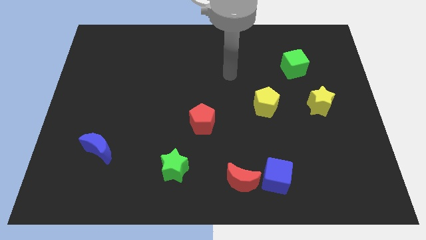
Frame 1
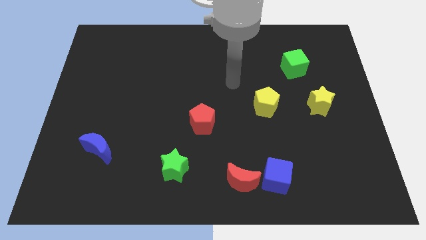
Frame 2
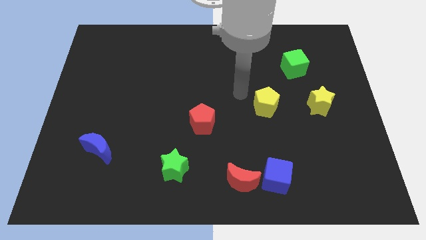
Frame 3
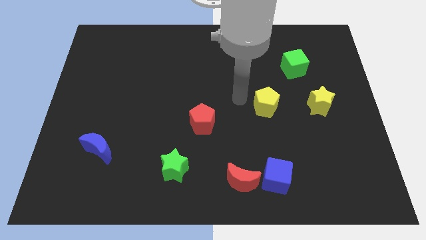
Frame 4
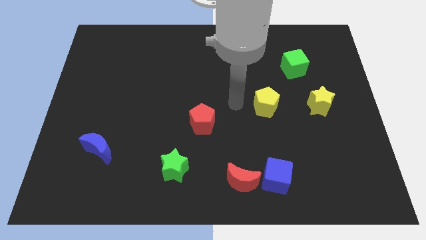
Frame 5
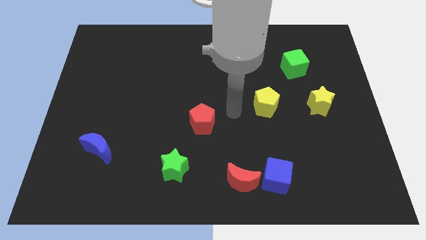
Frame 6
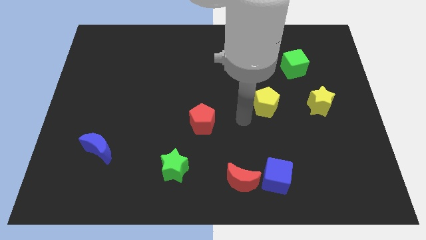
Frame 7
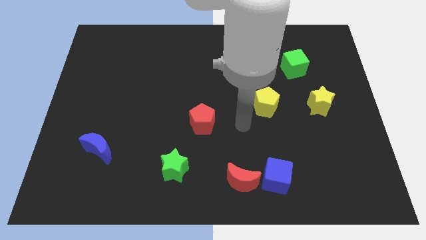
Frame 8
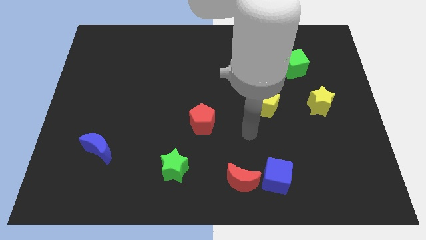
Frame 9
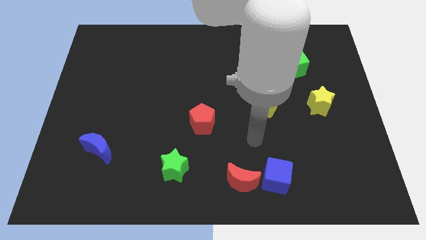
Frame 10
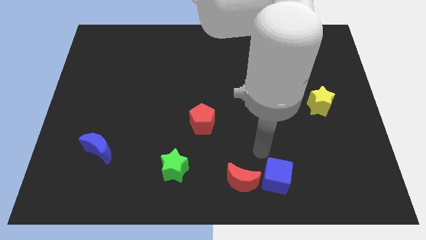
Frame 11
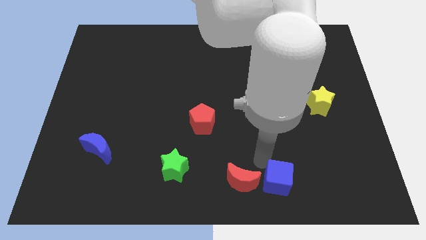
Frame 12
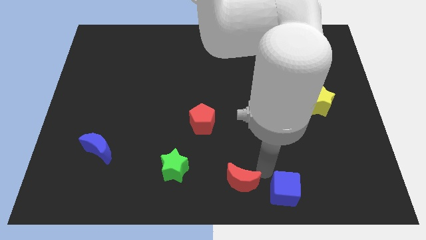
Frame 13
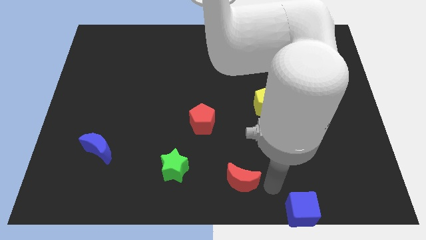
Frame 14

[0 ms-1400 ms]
move the red moon away from the blue cube

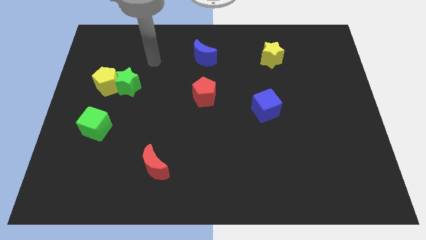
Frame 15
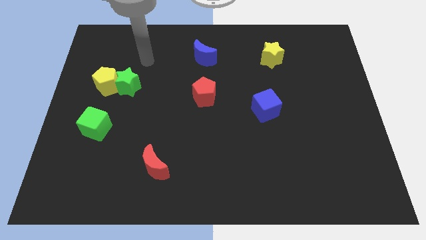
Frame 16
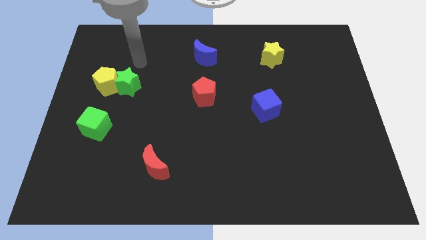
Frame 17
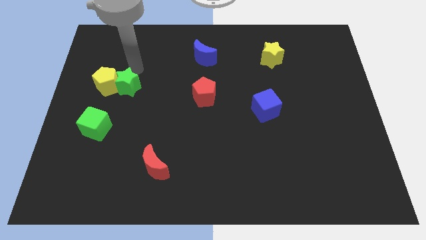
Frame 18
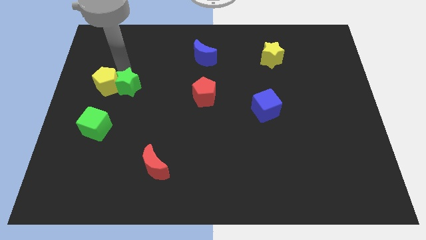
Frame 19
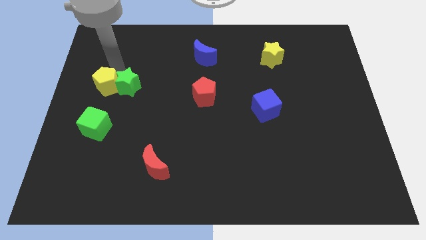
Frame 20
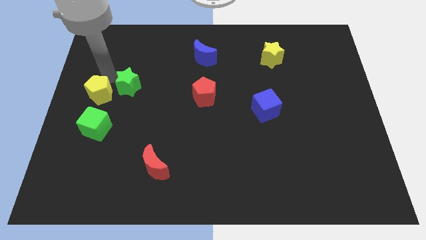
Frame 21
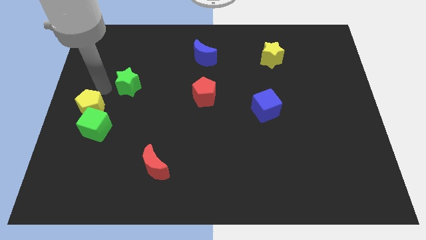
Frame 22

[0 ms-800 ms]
separate the green star from the yellow pentagon

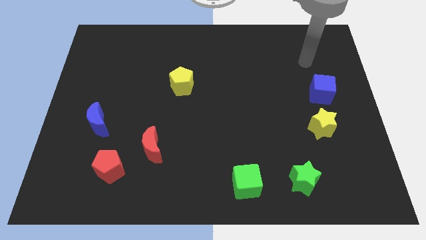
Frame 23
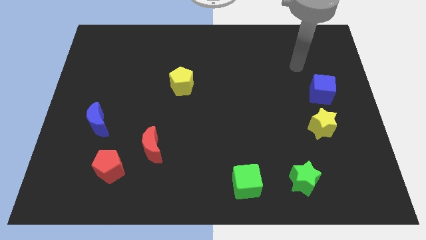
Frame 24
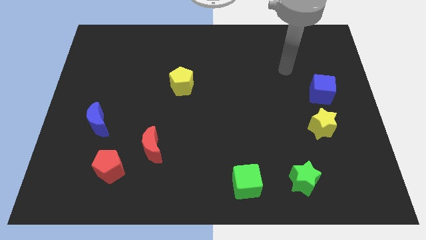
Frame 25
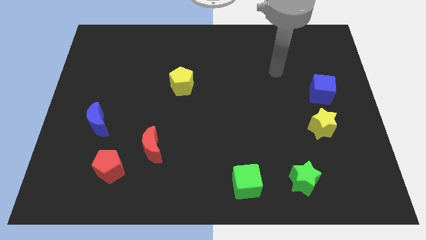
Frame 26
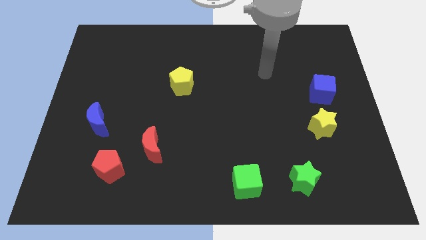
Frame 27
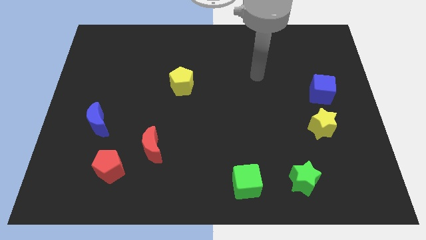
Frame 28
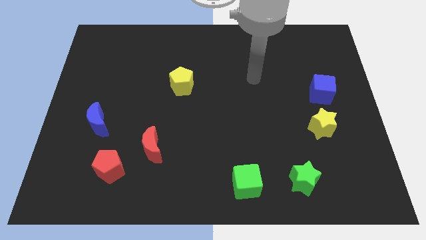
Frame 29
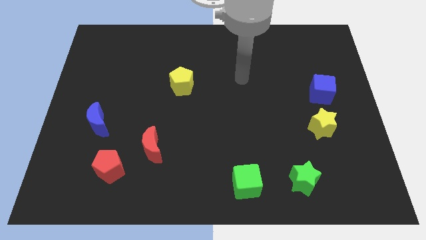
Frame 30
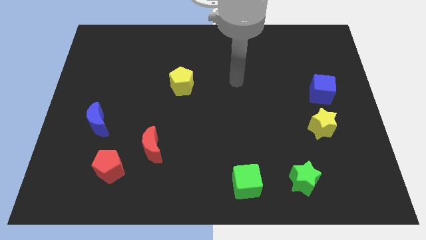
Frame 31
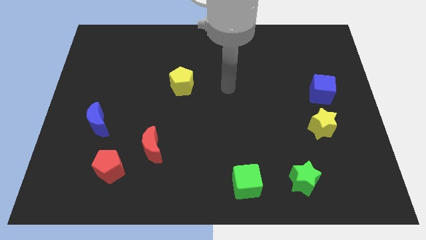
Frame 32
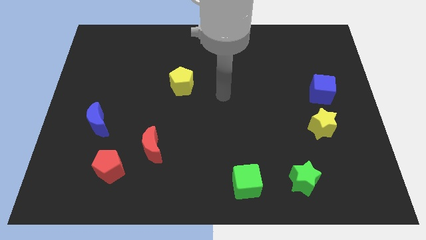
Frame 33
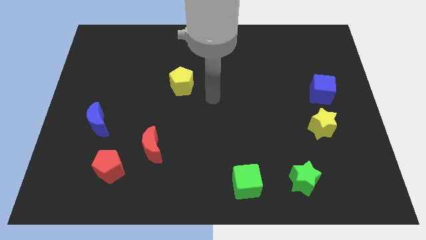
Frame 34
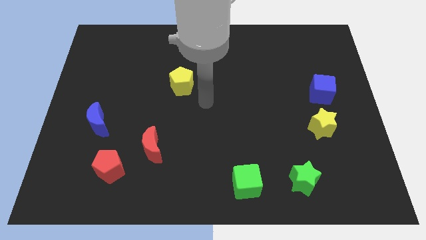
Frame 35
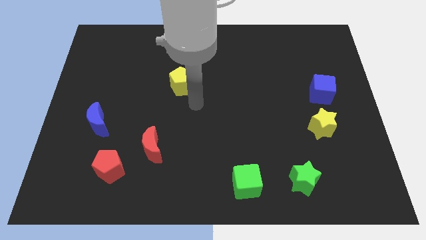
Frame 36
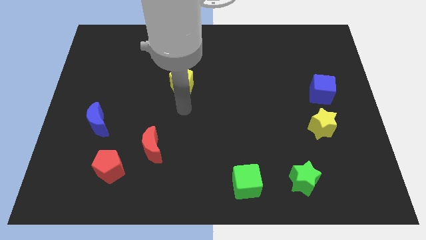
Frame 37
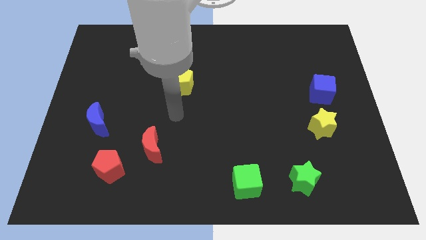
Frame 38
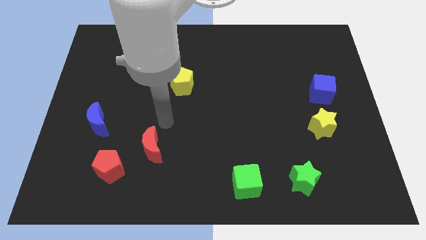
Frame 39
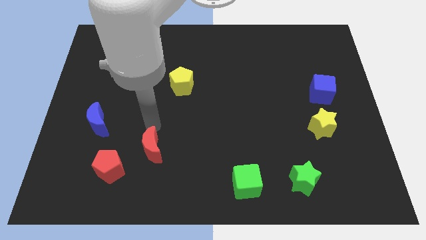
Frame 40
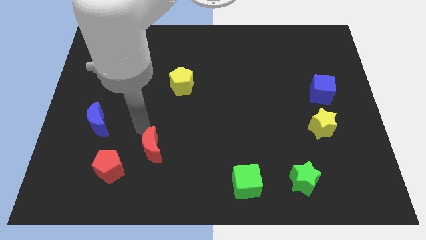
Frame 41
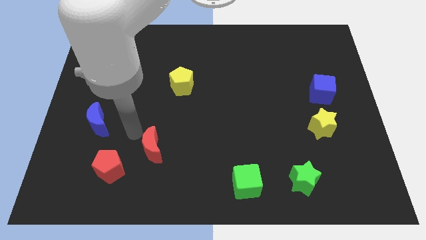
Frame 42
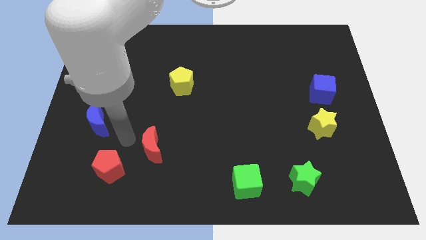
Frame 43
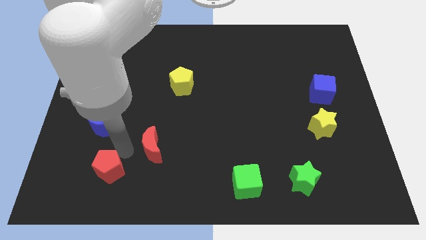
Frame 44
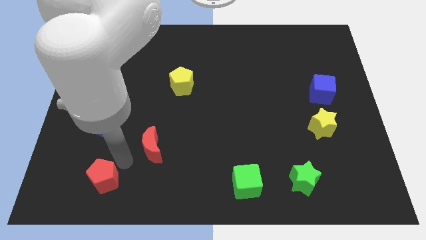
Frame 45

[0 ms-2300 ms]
separate the red moon from the red pentagon

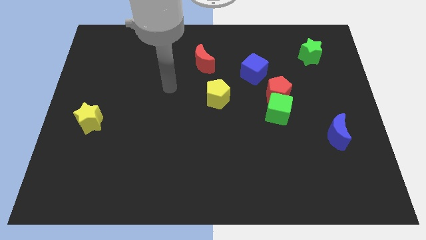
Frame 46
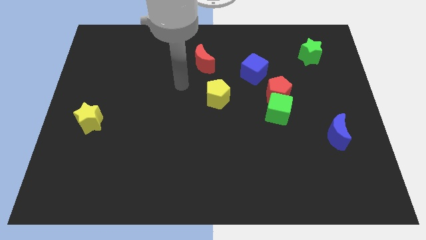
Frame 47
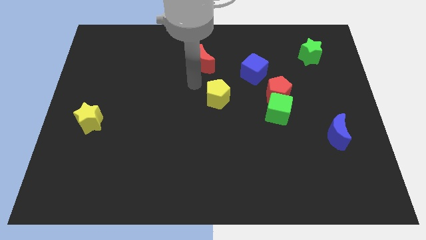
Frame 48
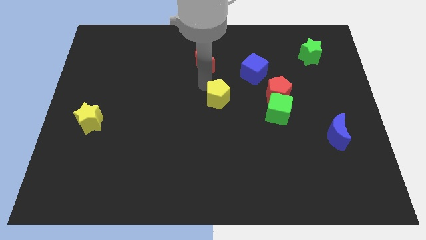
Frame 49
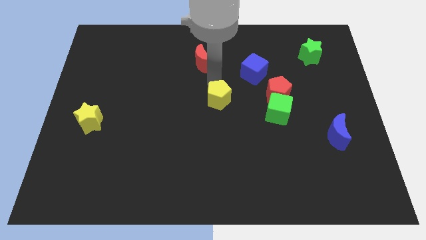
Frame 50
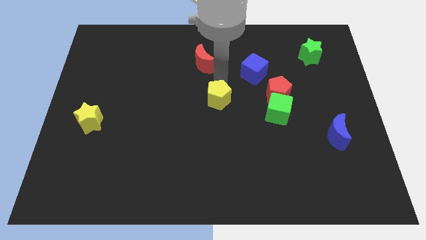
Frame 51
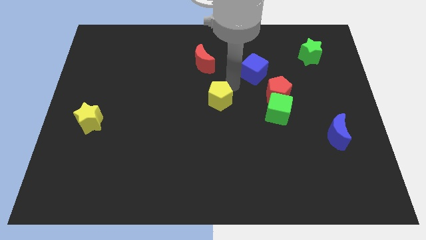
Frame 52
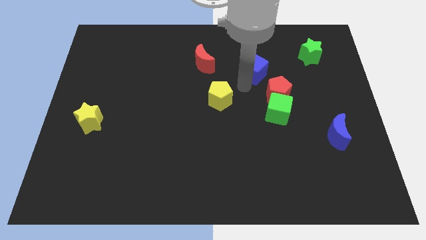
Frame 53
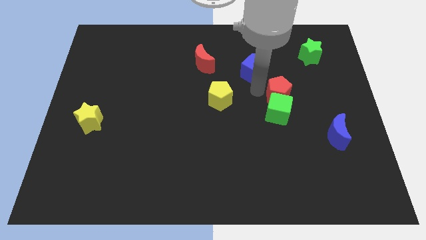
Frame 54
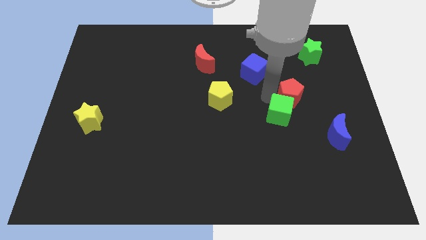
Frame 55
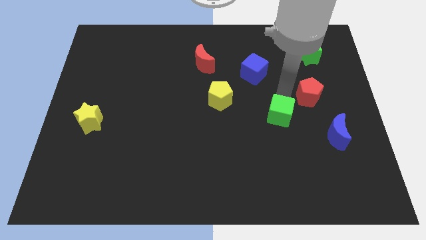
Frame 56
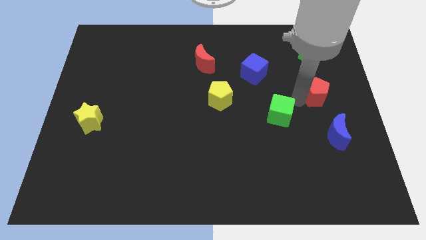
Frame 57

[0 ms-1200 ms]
move the green cube away from the red pentagon

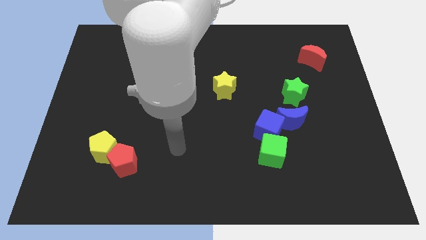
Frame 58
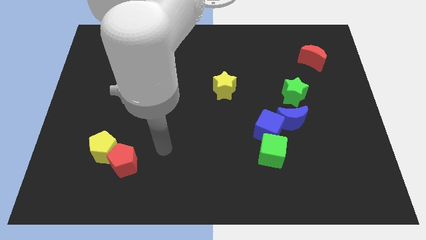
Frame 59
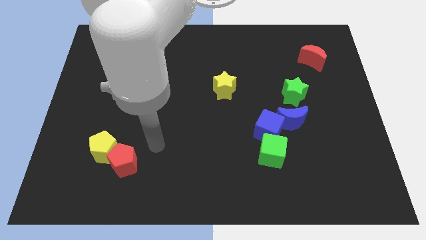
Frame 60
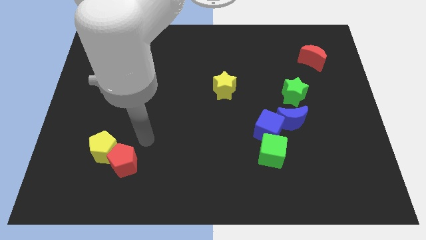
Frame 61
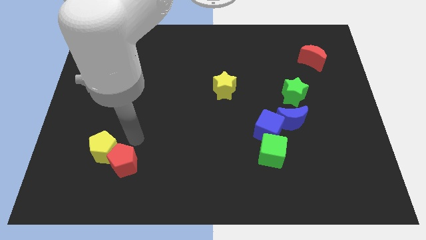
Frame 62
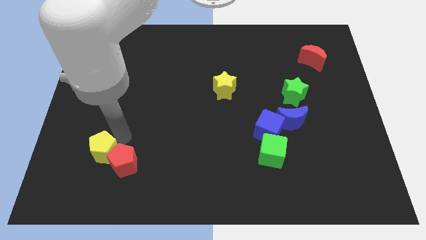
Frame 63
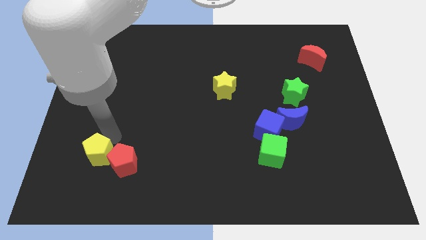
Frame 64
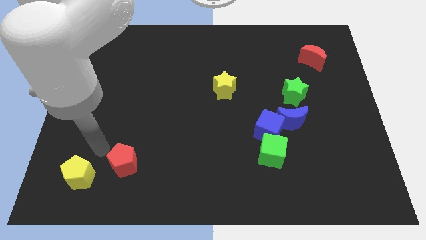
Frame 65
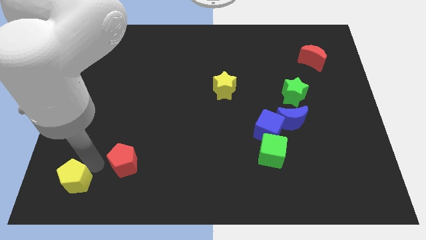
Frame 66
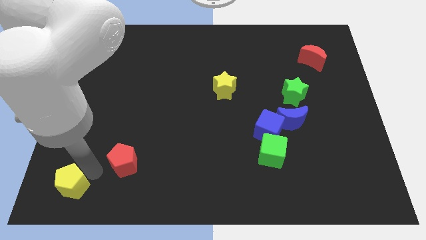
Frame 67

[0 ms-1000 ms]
separate the red pentagon from the yellow pentagon

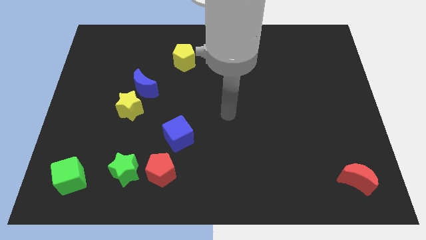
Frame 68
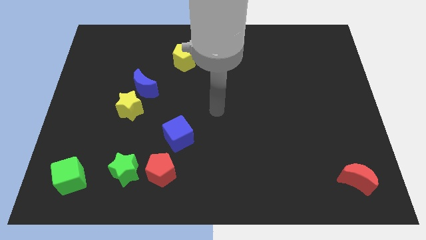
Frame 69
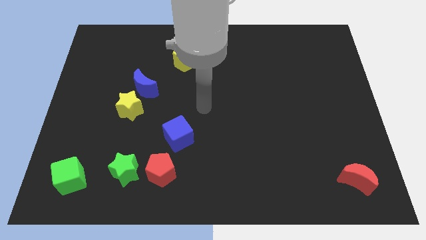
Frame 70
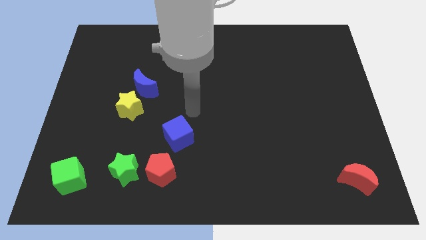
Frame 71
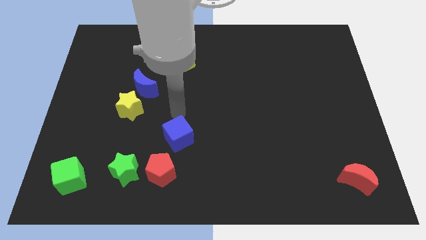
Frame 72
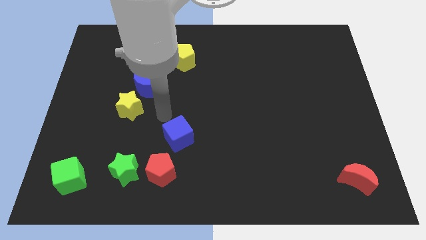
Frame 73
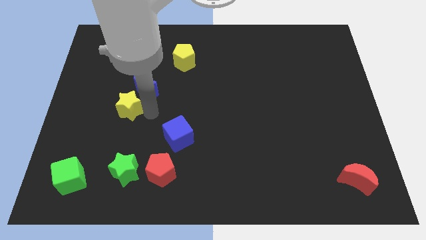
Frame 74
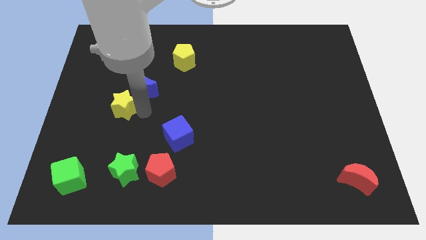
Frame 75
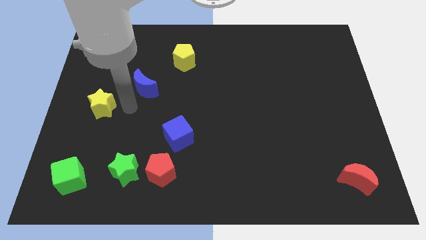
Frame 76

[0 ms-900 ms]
move the blue moon away from the yellow star

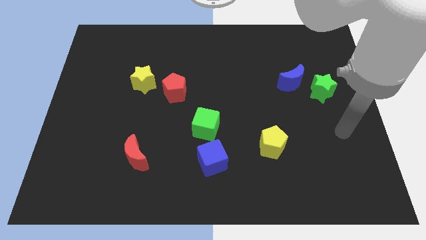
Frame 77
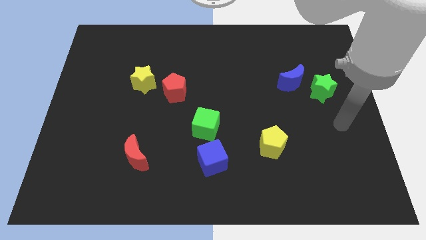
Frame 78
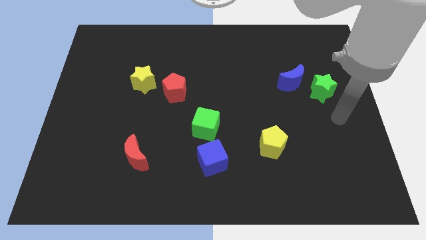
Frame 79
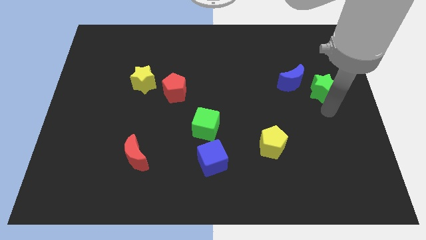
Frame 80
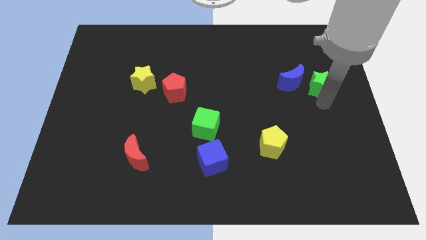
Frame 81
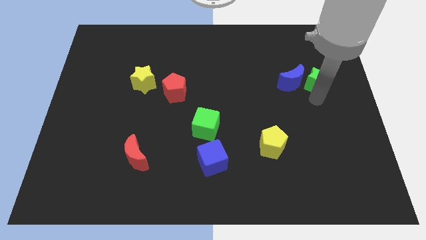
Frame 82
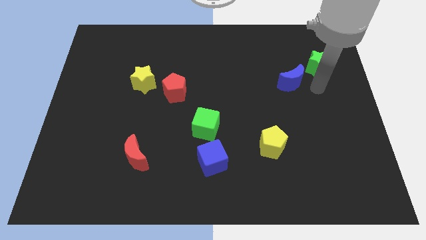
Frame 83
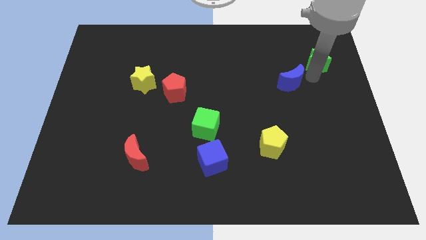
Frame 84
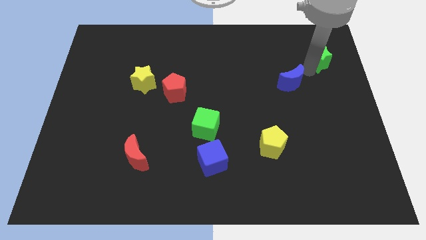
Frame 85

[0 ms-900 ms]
move the blue moon away from the green star

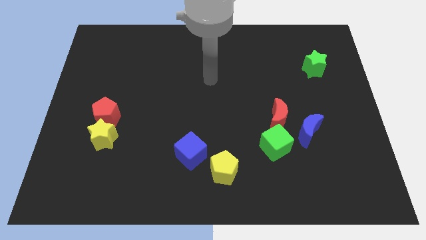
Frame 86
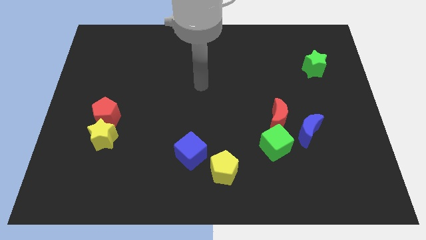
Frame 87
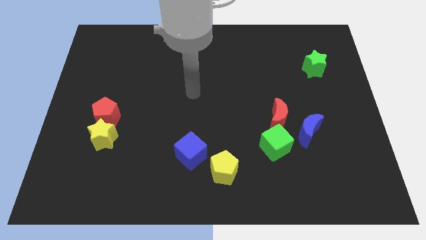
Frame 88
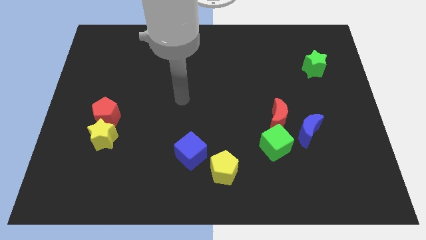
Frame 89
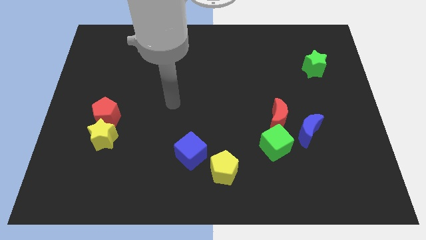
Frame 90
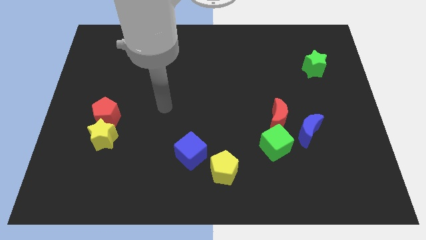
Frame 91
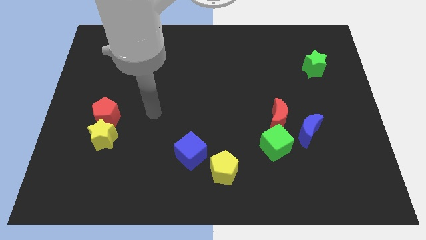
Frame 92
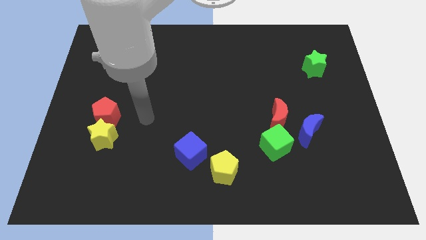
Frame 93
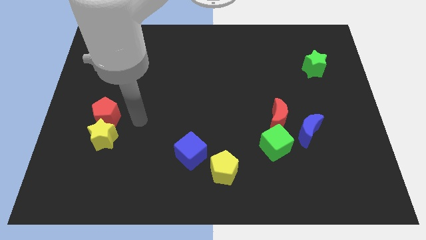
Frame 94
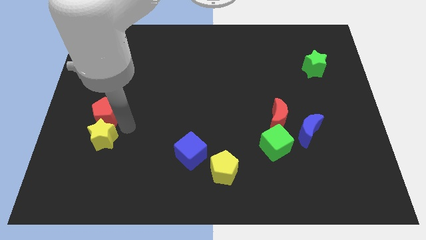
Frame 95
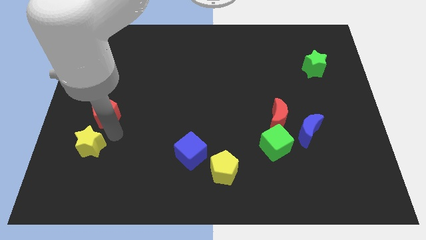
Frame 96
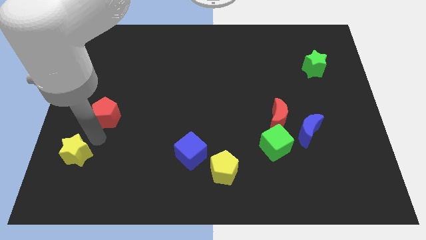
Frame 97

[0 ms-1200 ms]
separate the red pentagon from the yellow star
